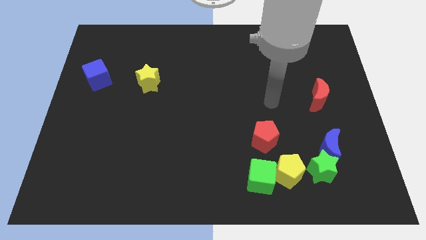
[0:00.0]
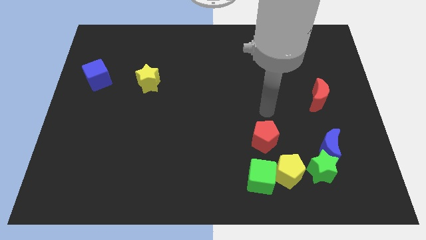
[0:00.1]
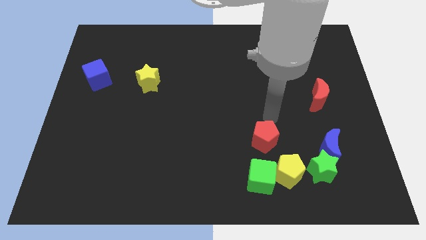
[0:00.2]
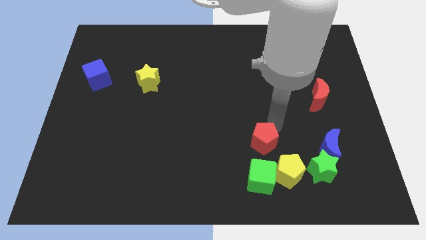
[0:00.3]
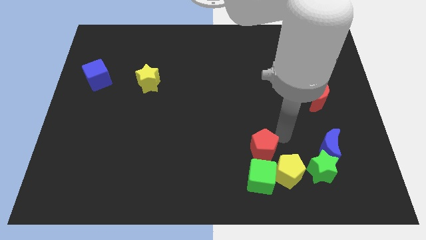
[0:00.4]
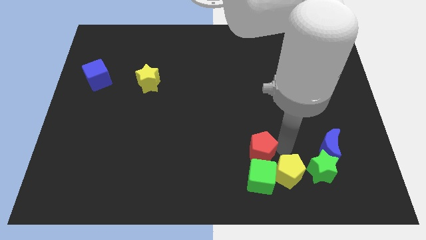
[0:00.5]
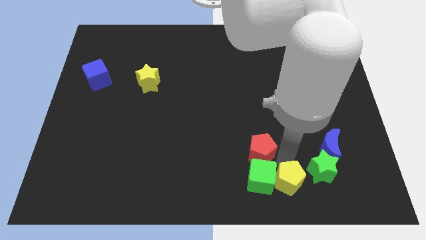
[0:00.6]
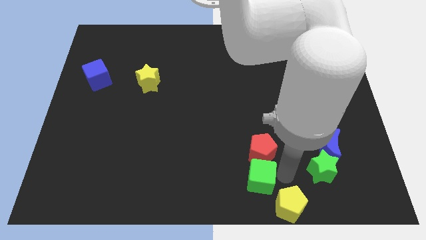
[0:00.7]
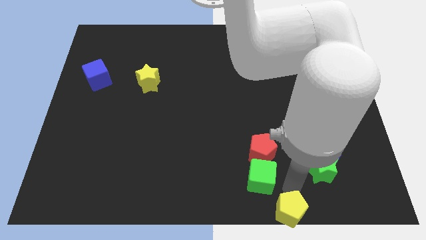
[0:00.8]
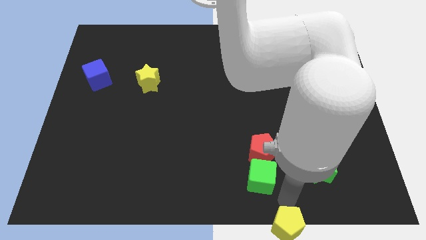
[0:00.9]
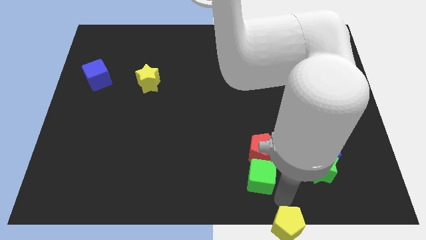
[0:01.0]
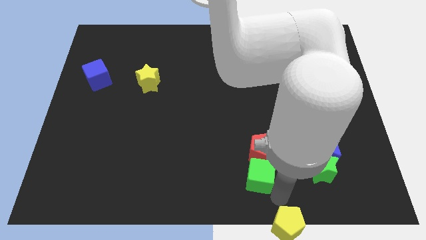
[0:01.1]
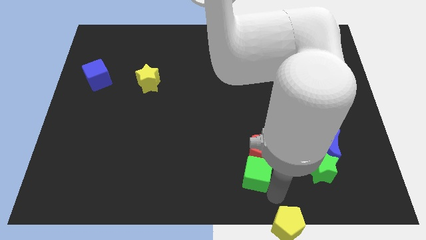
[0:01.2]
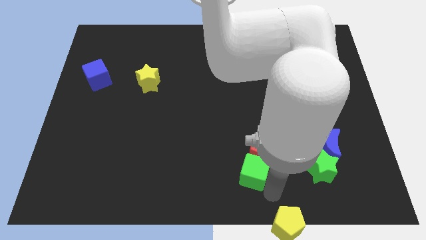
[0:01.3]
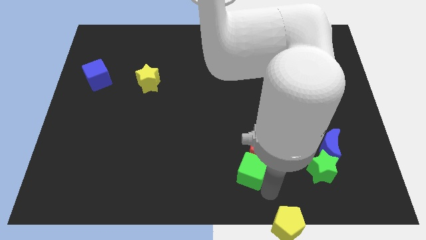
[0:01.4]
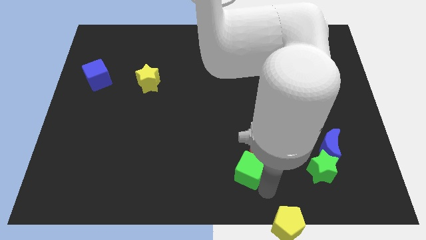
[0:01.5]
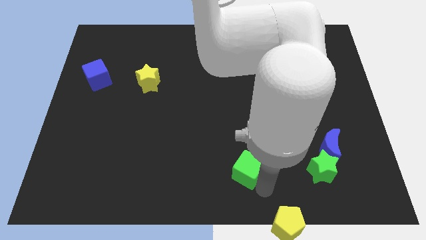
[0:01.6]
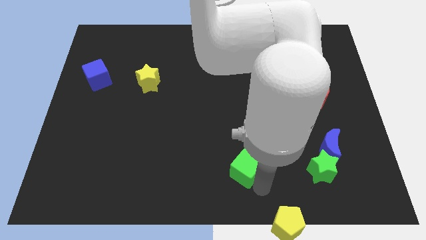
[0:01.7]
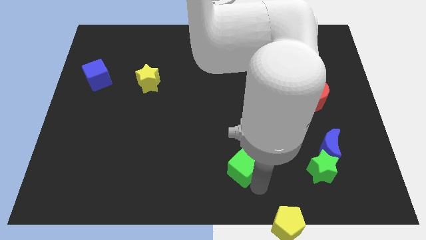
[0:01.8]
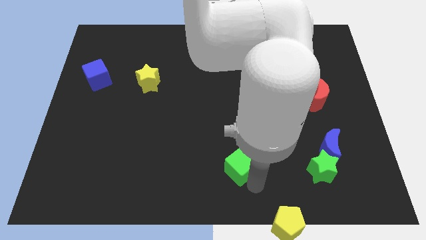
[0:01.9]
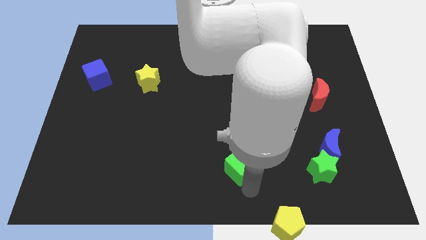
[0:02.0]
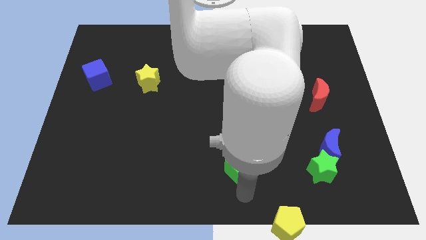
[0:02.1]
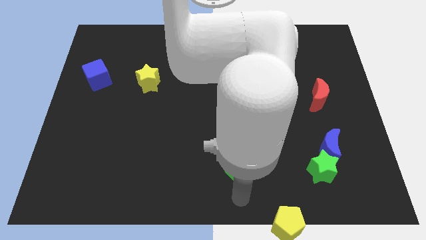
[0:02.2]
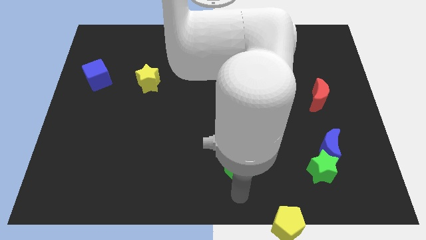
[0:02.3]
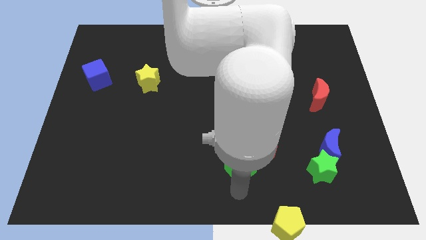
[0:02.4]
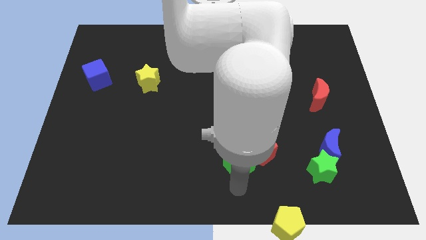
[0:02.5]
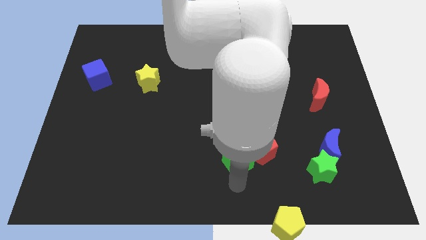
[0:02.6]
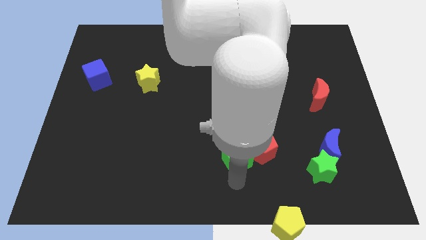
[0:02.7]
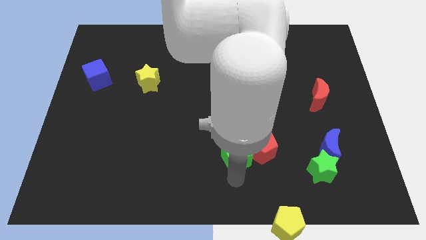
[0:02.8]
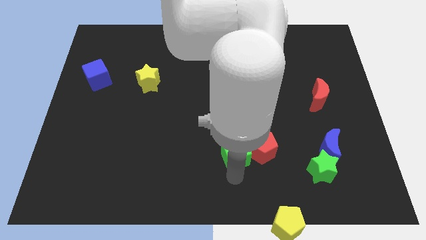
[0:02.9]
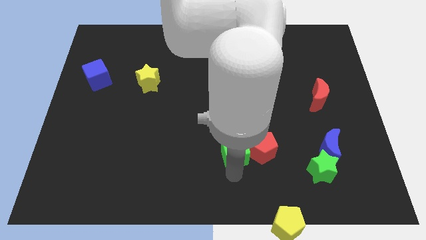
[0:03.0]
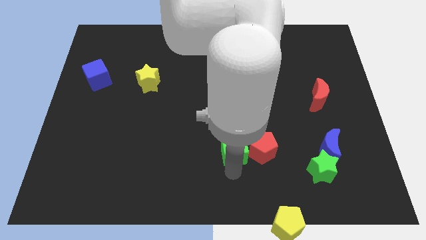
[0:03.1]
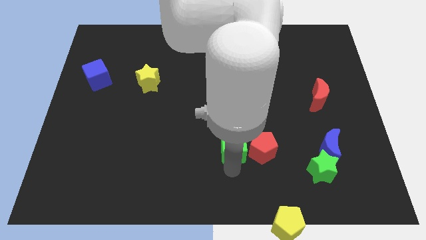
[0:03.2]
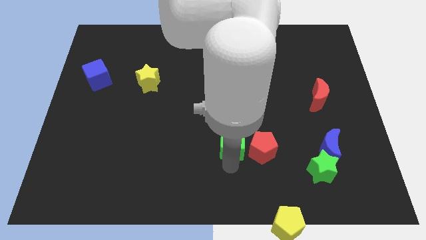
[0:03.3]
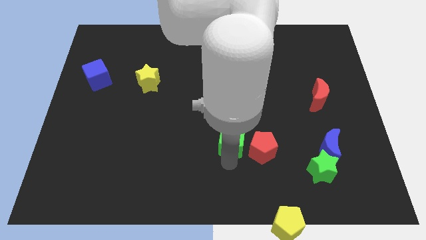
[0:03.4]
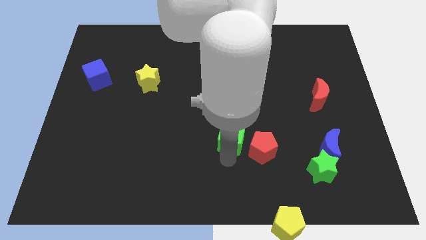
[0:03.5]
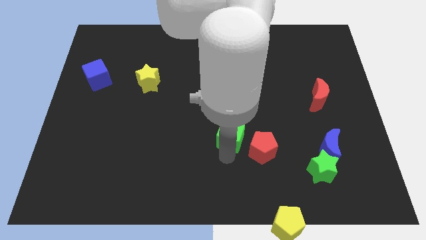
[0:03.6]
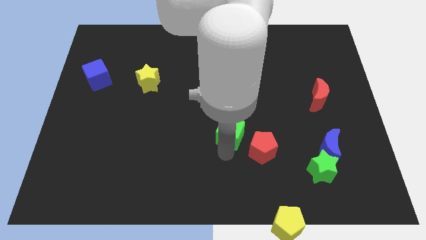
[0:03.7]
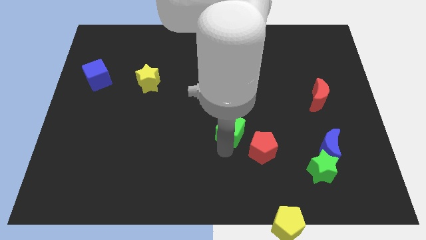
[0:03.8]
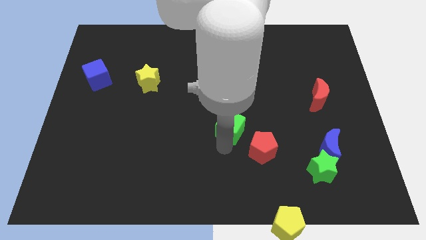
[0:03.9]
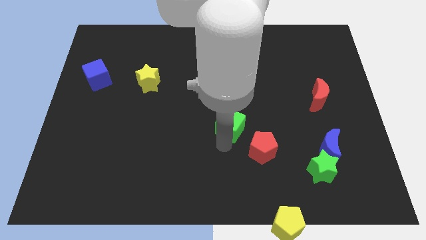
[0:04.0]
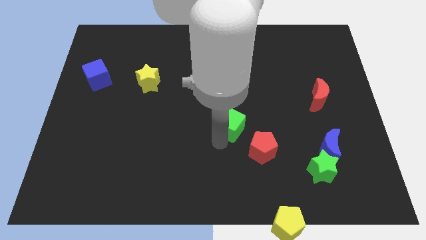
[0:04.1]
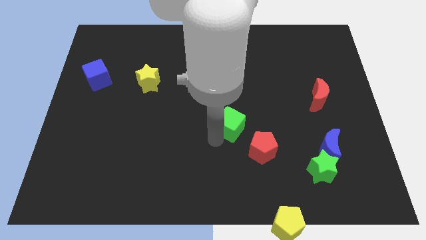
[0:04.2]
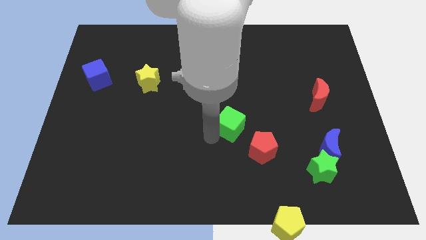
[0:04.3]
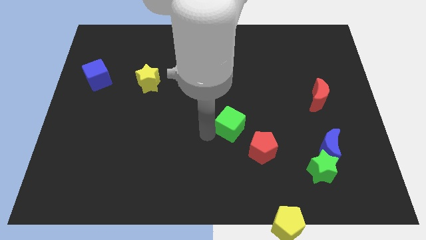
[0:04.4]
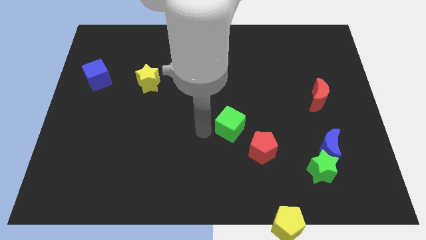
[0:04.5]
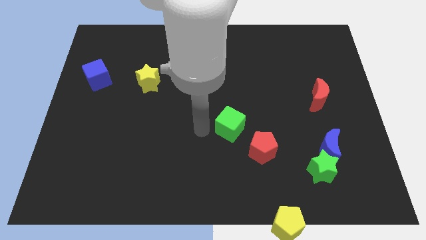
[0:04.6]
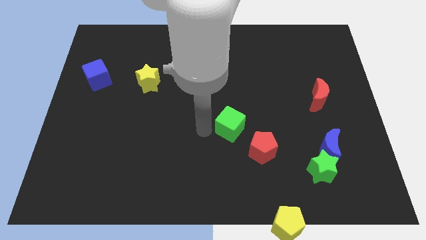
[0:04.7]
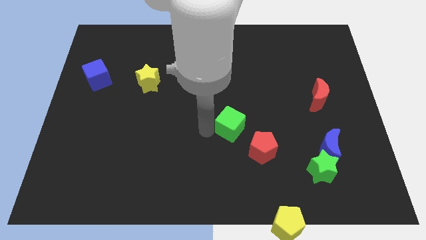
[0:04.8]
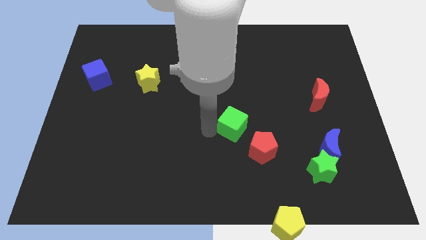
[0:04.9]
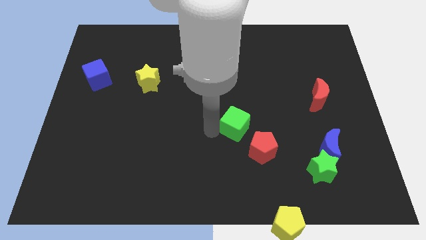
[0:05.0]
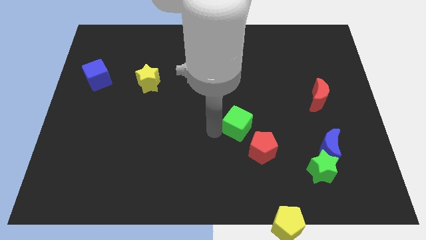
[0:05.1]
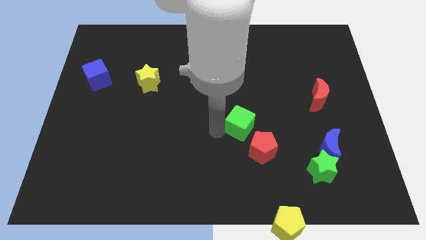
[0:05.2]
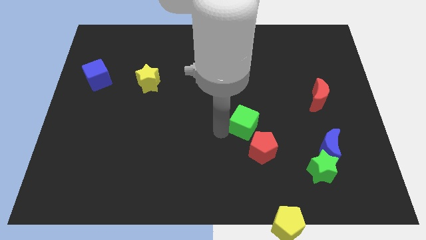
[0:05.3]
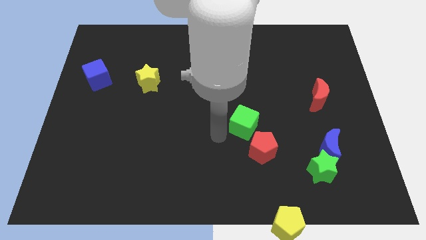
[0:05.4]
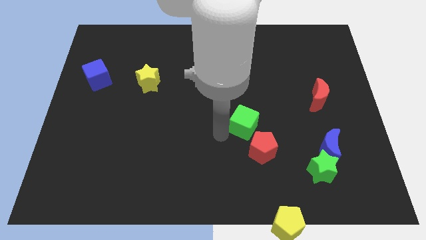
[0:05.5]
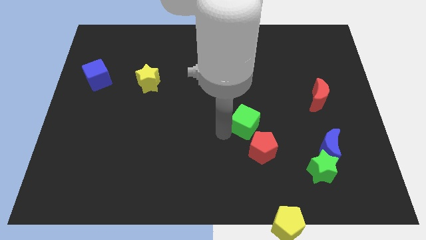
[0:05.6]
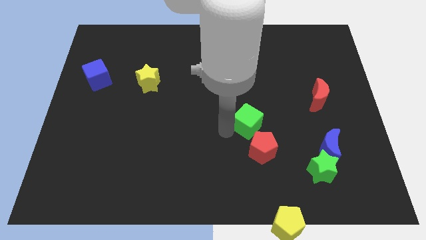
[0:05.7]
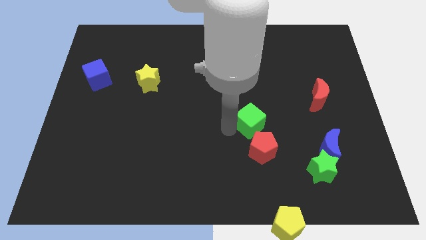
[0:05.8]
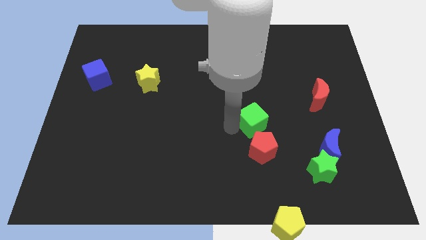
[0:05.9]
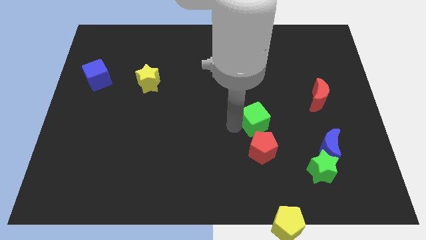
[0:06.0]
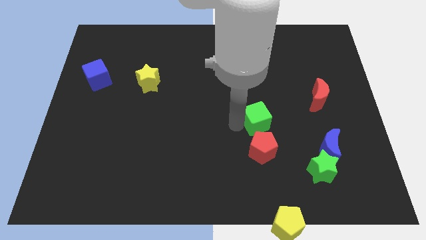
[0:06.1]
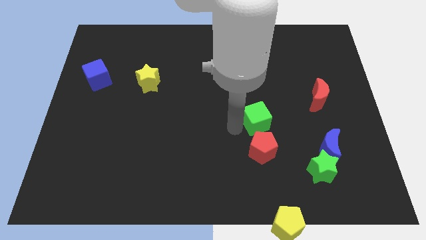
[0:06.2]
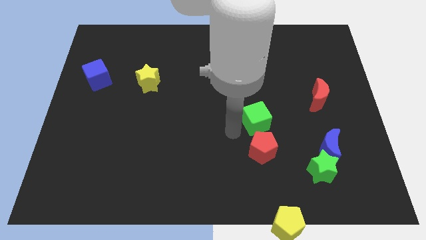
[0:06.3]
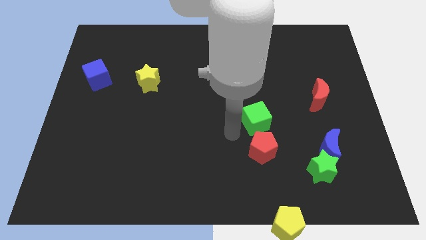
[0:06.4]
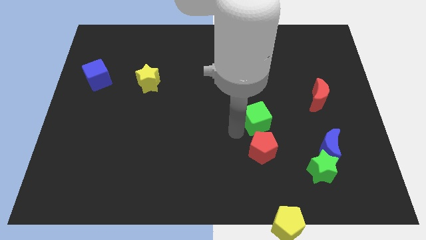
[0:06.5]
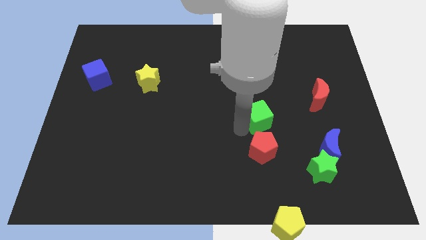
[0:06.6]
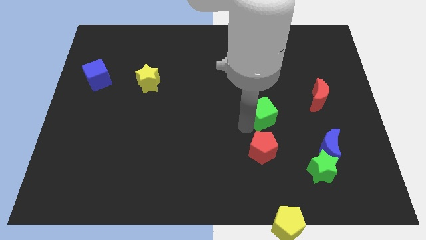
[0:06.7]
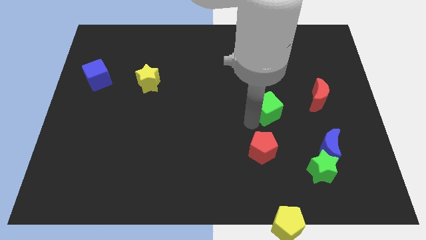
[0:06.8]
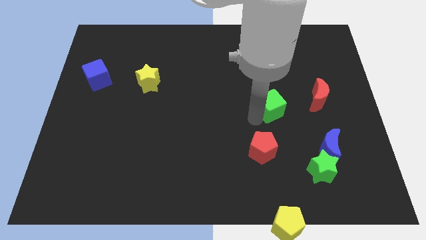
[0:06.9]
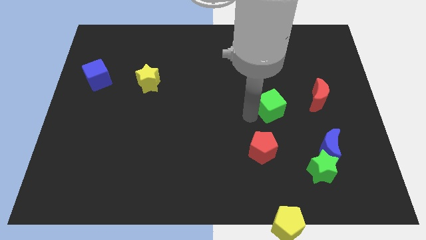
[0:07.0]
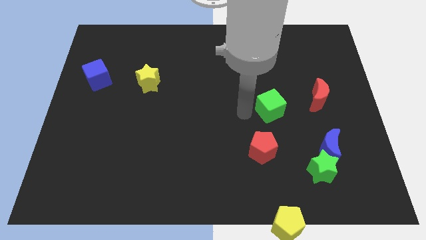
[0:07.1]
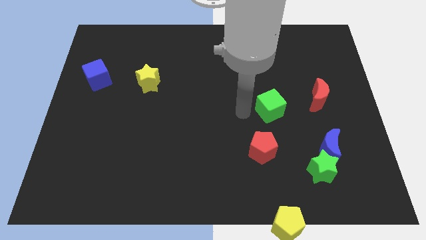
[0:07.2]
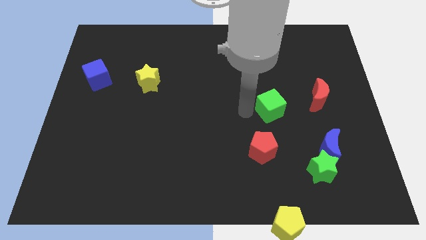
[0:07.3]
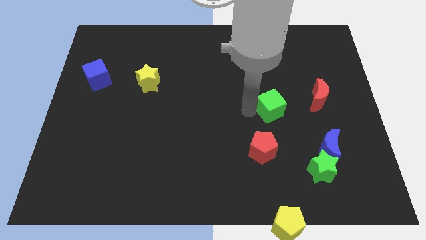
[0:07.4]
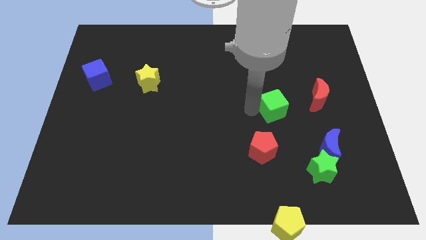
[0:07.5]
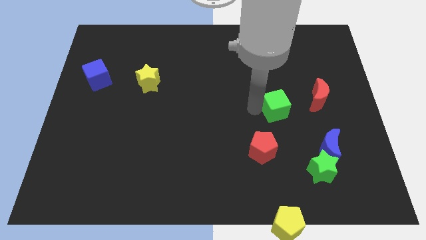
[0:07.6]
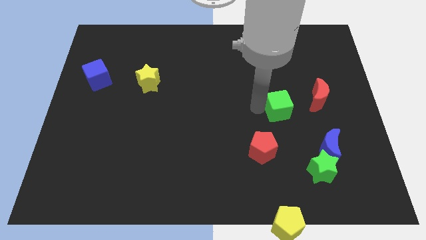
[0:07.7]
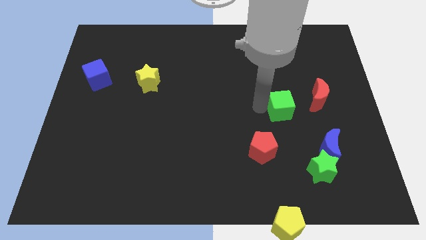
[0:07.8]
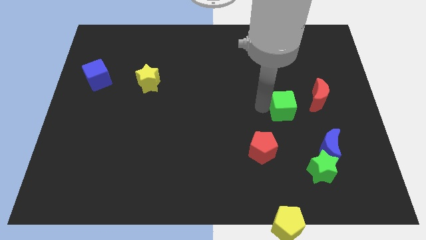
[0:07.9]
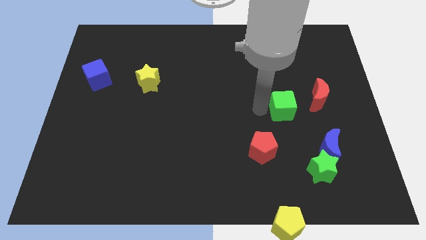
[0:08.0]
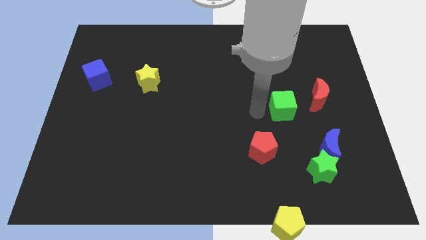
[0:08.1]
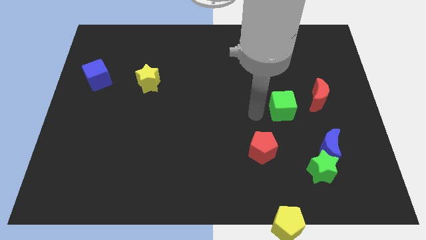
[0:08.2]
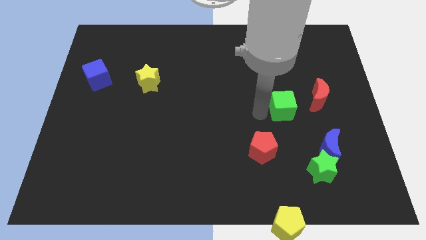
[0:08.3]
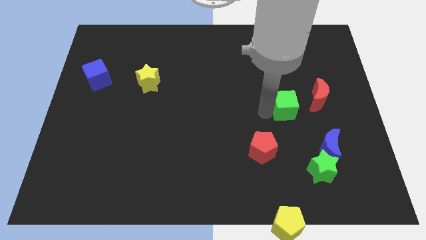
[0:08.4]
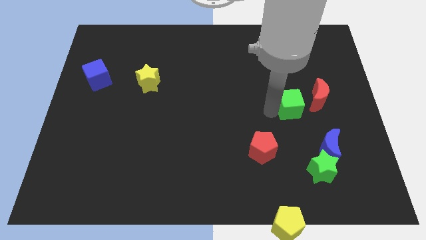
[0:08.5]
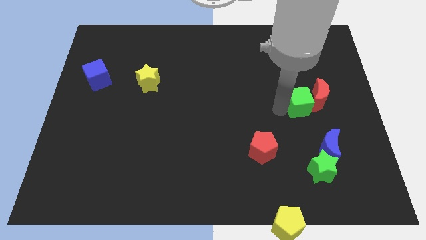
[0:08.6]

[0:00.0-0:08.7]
put the green cube towards the red moon
